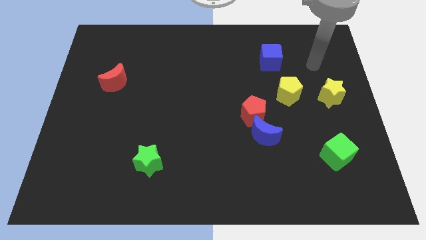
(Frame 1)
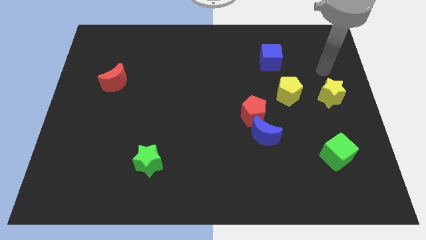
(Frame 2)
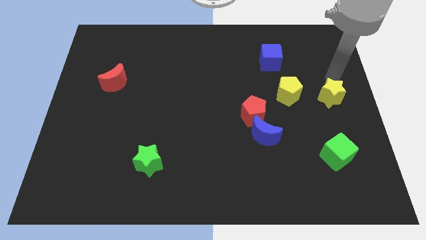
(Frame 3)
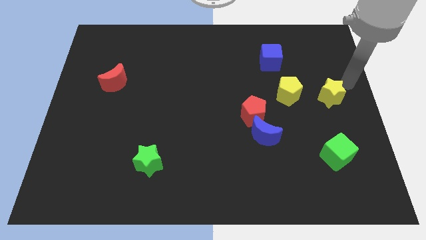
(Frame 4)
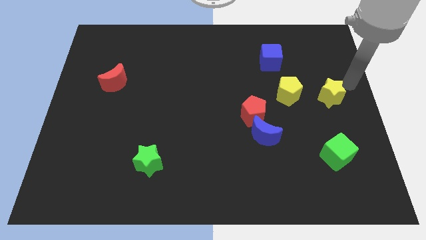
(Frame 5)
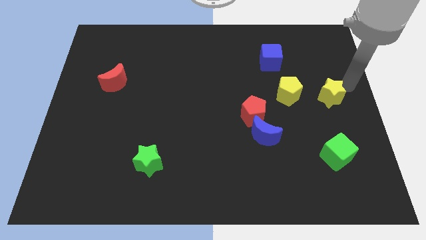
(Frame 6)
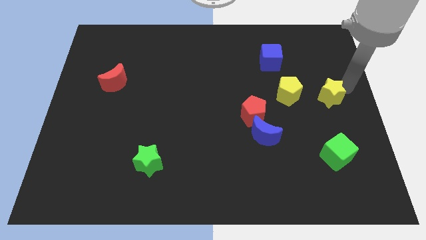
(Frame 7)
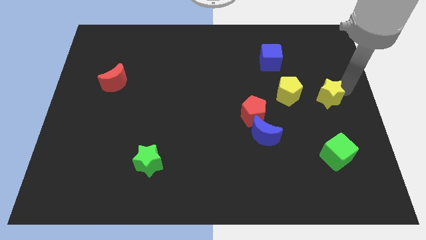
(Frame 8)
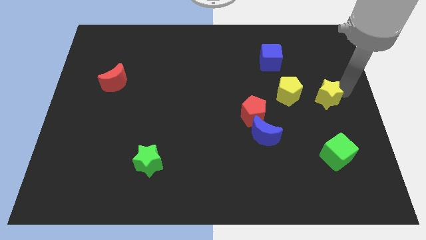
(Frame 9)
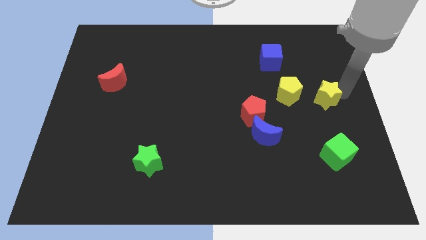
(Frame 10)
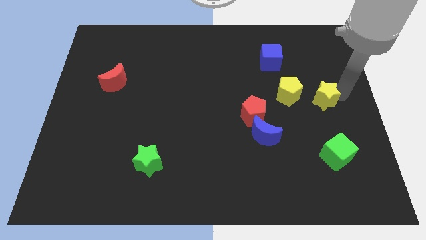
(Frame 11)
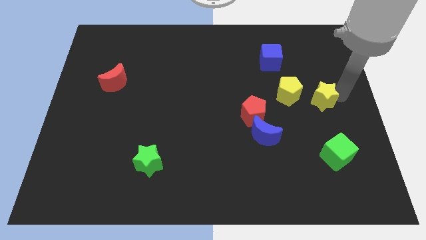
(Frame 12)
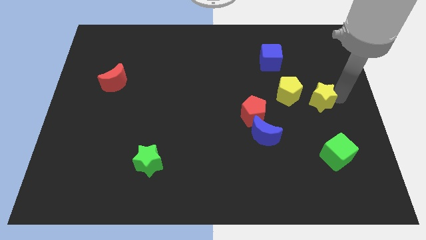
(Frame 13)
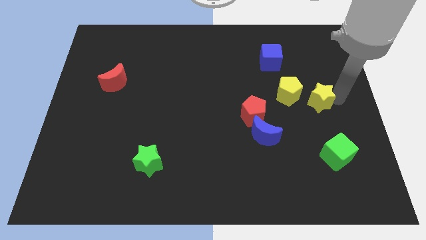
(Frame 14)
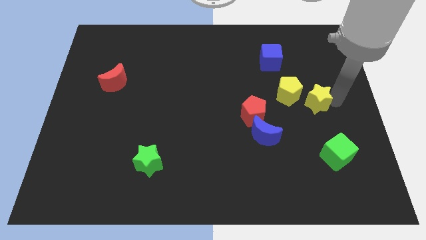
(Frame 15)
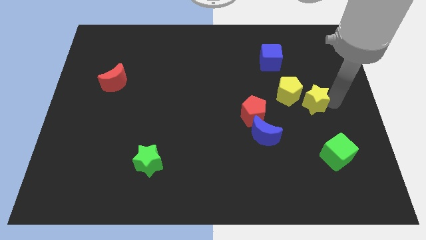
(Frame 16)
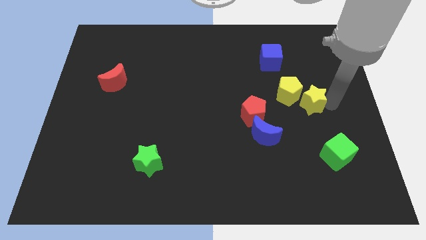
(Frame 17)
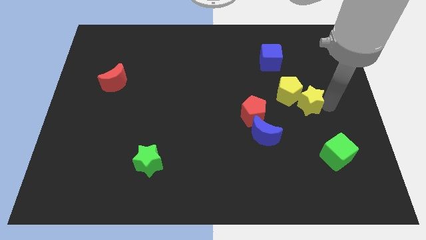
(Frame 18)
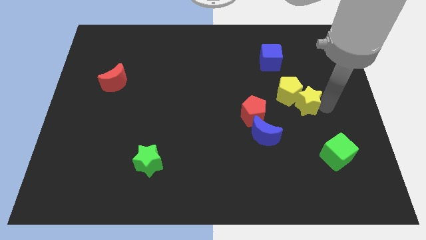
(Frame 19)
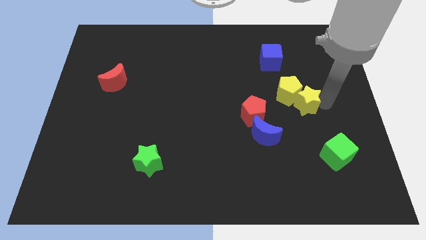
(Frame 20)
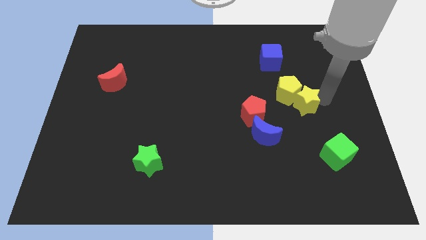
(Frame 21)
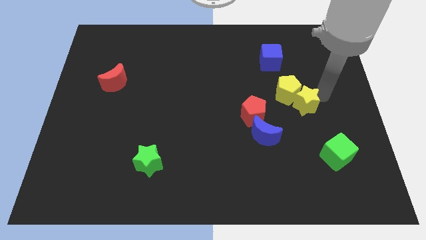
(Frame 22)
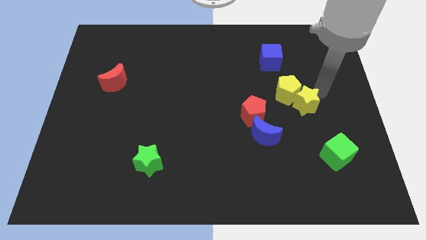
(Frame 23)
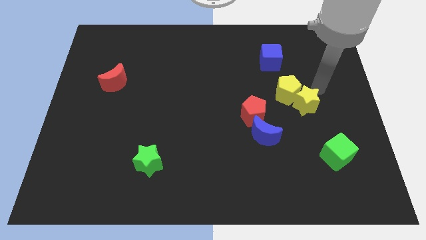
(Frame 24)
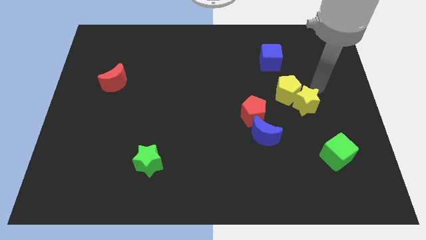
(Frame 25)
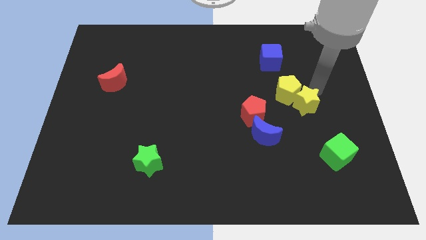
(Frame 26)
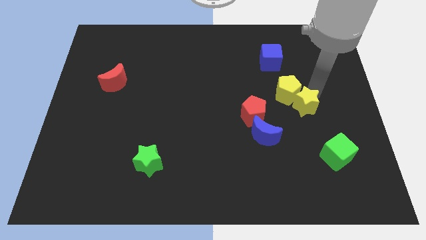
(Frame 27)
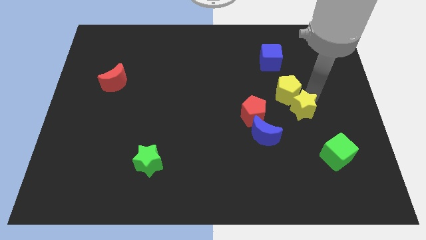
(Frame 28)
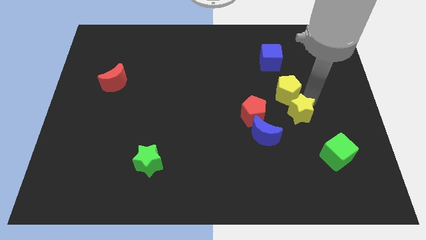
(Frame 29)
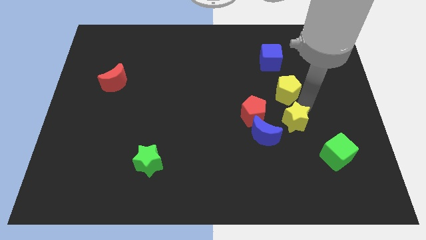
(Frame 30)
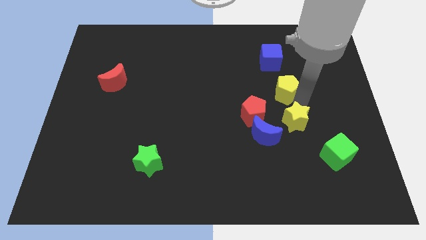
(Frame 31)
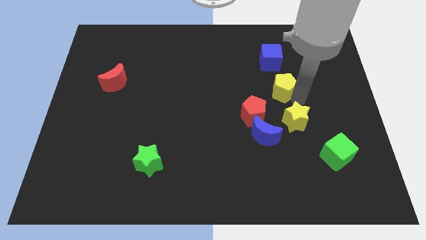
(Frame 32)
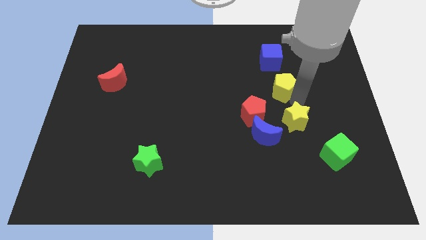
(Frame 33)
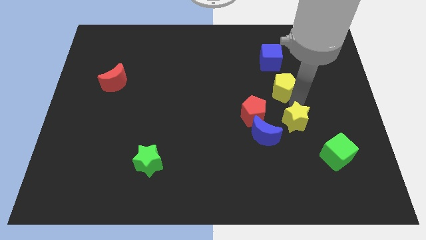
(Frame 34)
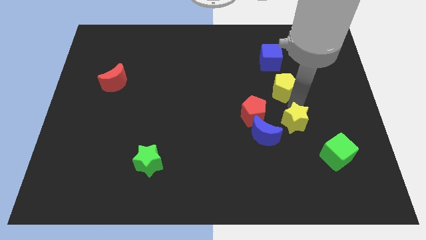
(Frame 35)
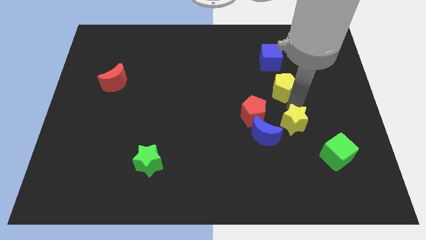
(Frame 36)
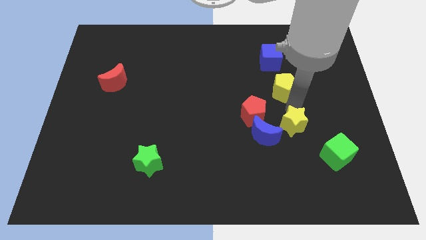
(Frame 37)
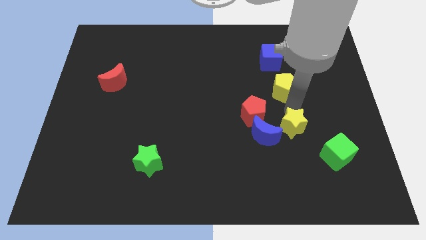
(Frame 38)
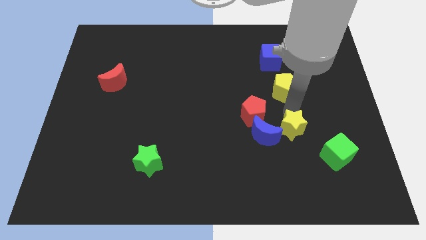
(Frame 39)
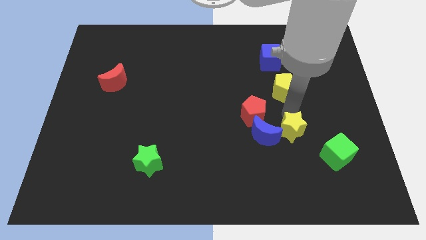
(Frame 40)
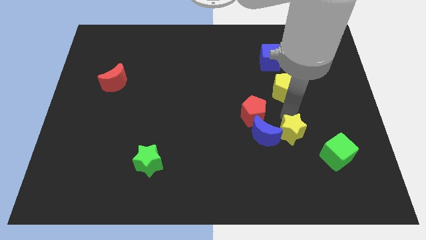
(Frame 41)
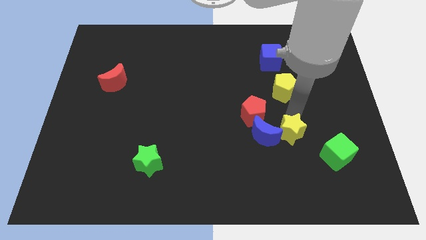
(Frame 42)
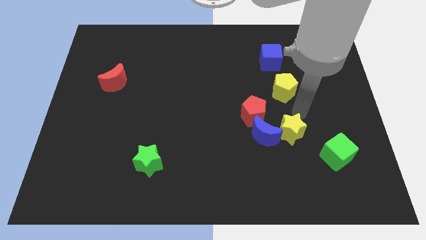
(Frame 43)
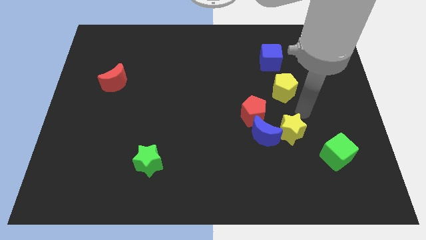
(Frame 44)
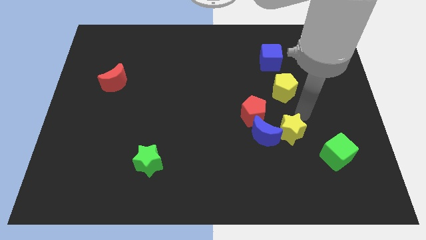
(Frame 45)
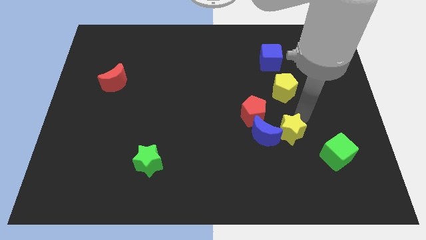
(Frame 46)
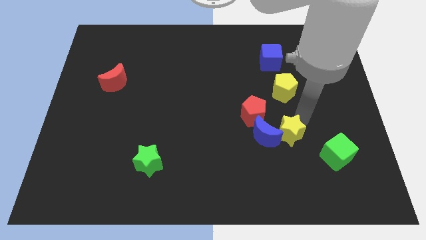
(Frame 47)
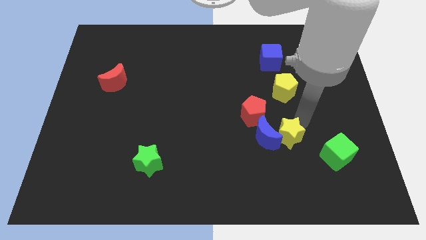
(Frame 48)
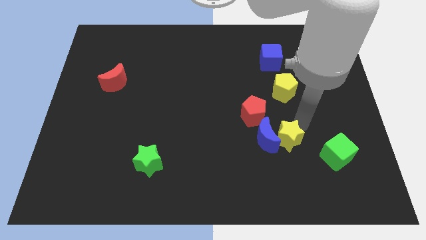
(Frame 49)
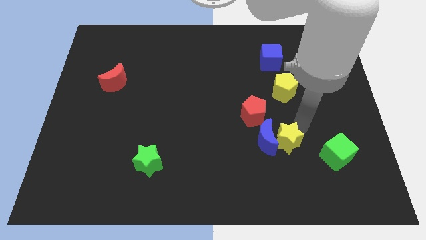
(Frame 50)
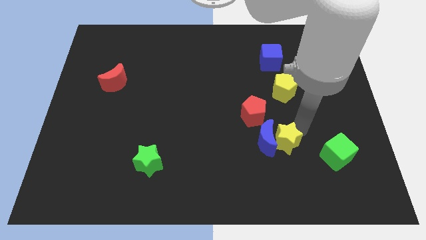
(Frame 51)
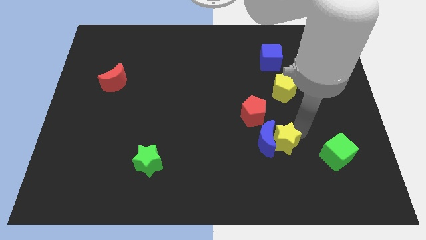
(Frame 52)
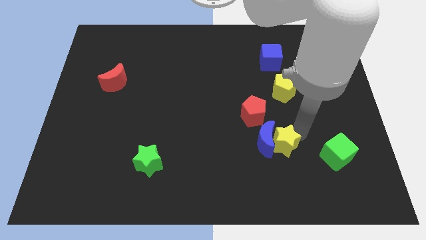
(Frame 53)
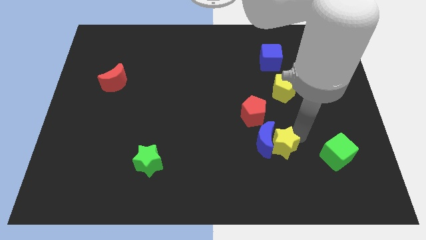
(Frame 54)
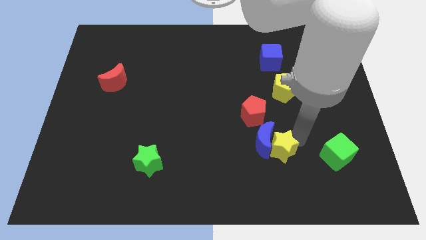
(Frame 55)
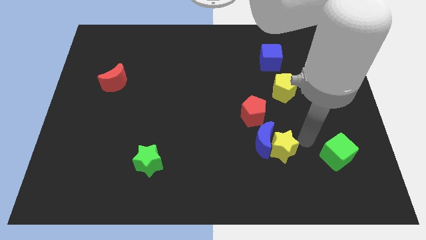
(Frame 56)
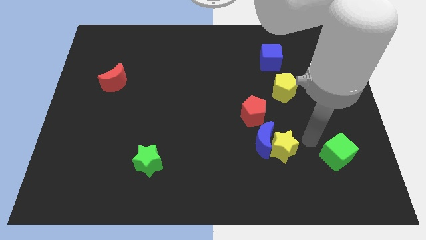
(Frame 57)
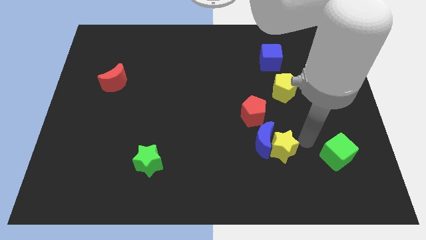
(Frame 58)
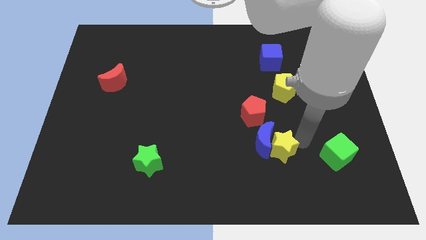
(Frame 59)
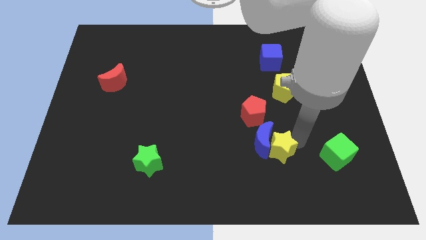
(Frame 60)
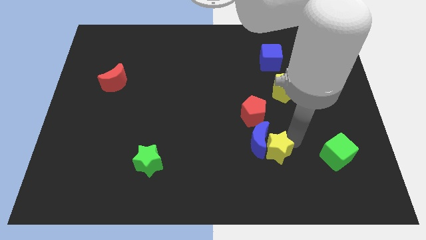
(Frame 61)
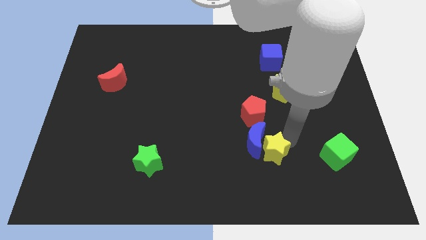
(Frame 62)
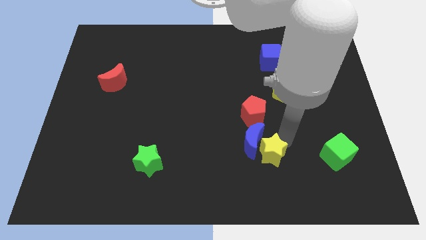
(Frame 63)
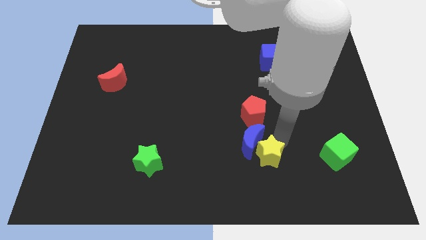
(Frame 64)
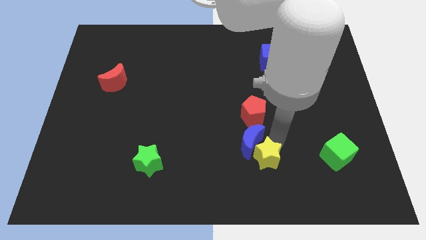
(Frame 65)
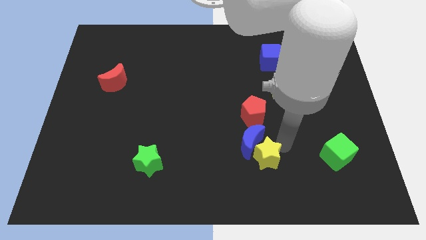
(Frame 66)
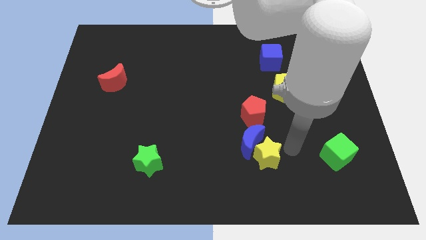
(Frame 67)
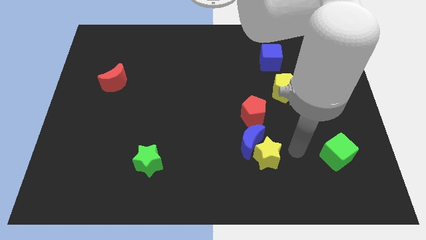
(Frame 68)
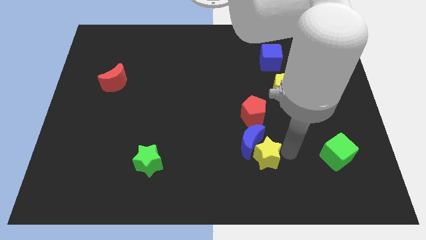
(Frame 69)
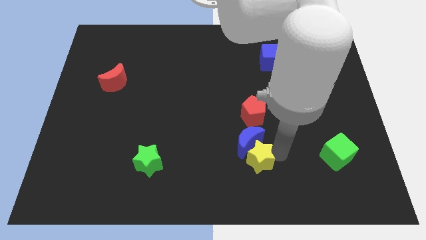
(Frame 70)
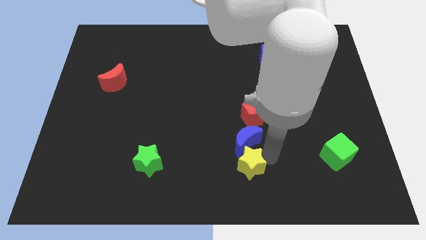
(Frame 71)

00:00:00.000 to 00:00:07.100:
slide the yellow star to the bottom left of the blue moon

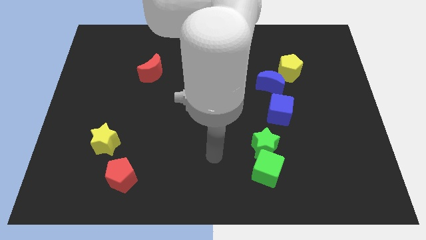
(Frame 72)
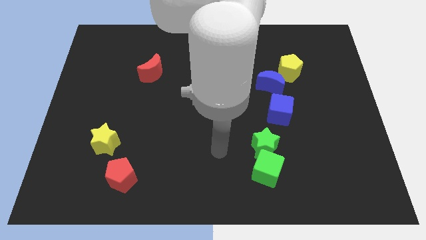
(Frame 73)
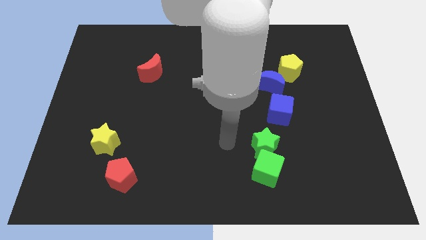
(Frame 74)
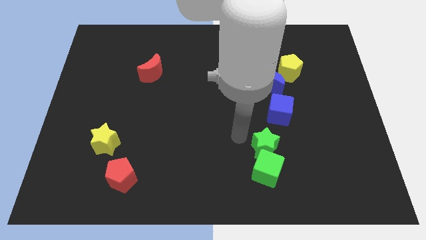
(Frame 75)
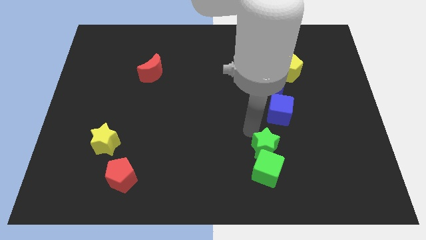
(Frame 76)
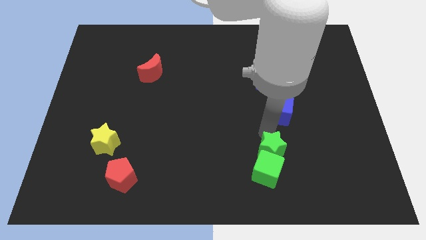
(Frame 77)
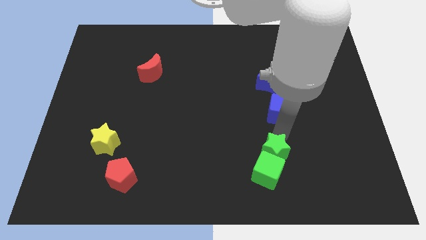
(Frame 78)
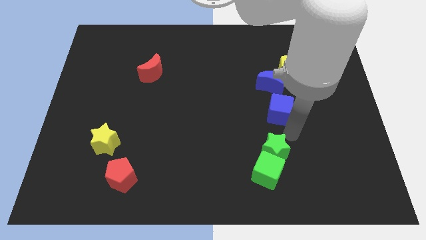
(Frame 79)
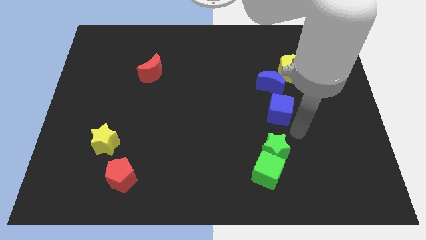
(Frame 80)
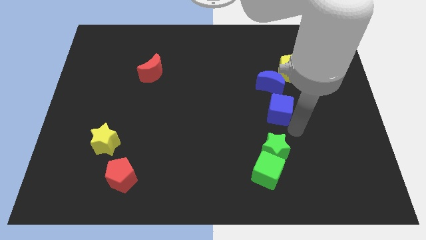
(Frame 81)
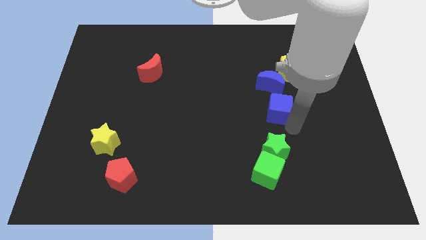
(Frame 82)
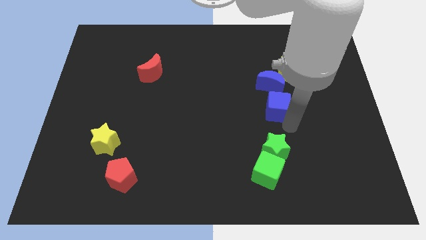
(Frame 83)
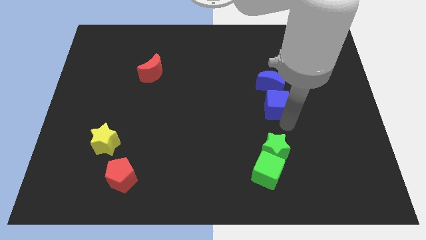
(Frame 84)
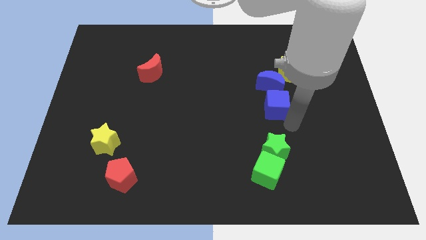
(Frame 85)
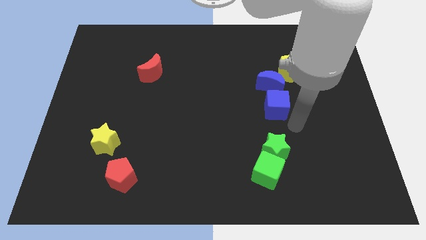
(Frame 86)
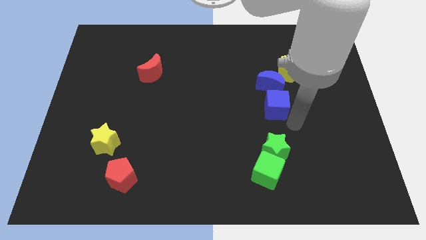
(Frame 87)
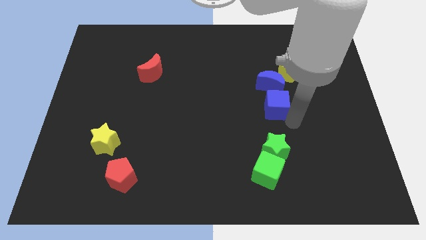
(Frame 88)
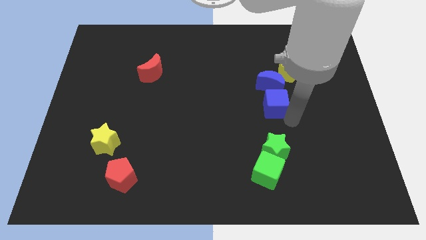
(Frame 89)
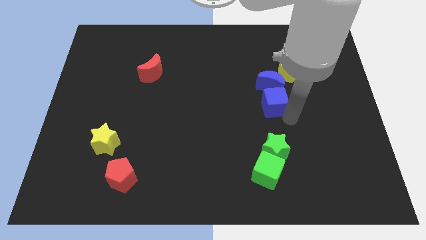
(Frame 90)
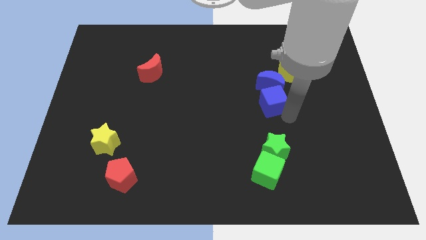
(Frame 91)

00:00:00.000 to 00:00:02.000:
move the blue cube to the bottom left side of the yellow pentagon
